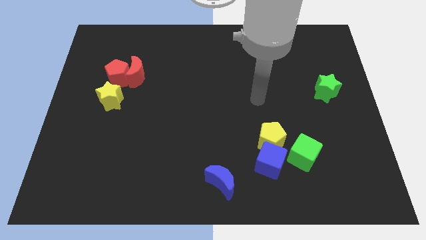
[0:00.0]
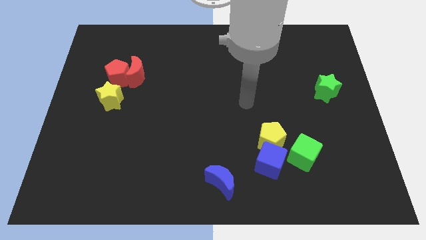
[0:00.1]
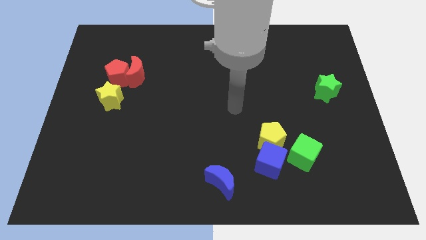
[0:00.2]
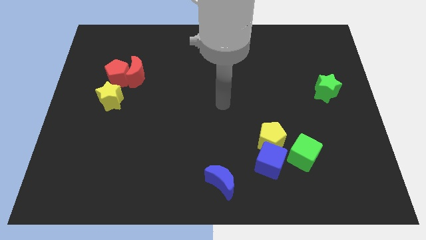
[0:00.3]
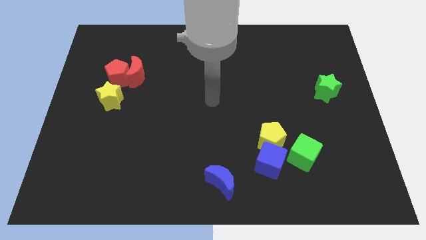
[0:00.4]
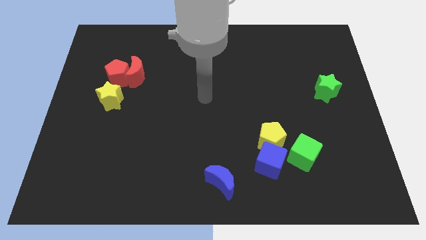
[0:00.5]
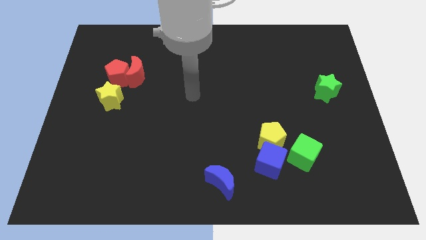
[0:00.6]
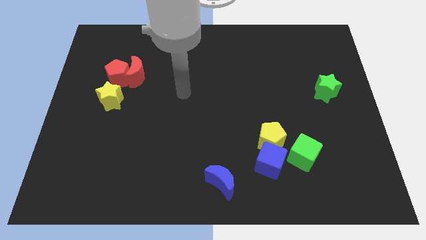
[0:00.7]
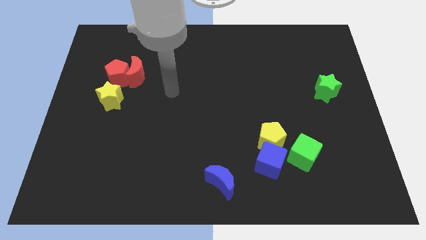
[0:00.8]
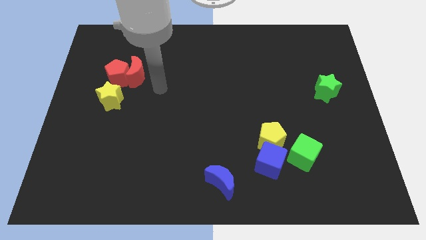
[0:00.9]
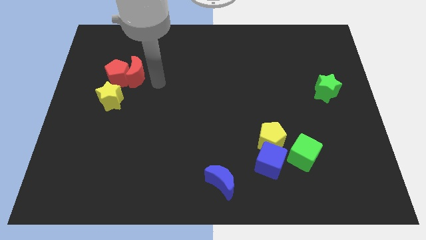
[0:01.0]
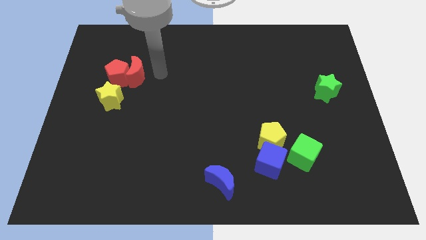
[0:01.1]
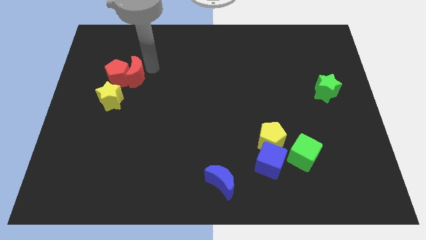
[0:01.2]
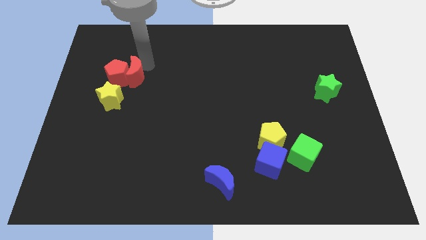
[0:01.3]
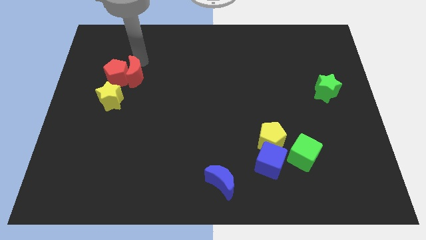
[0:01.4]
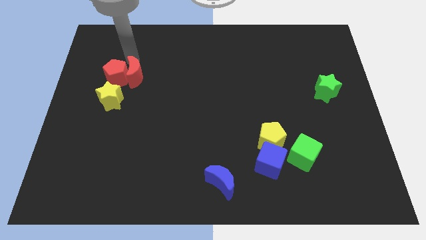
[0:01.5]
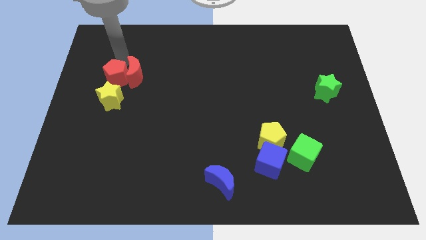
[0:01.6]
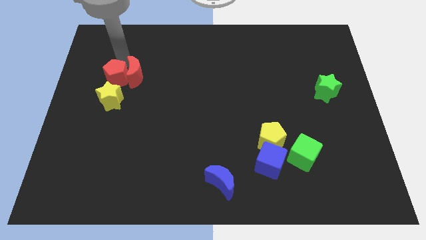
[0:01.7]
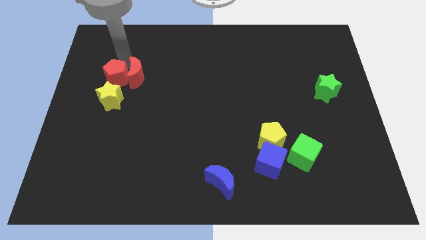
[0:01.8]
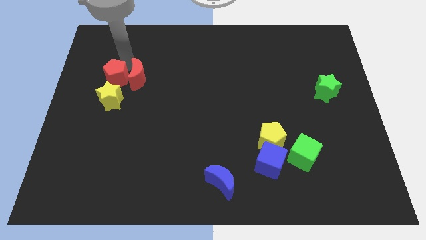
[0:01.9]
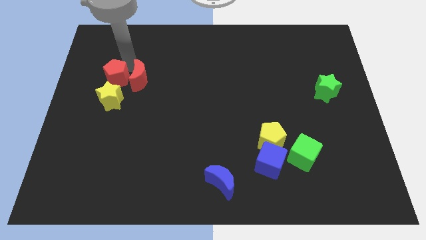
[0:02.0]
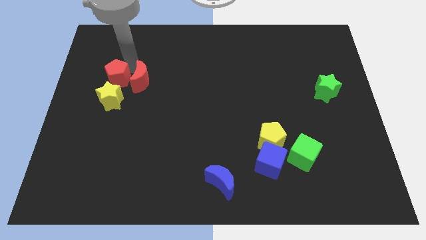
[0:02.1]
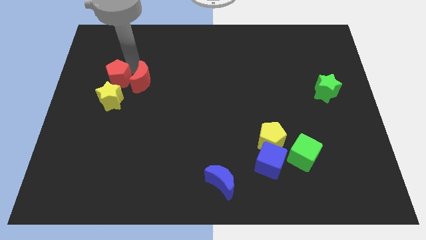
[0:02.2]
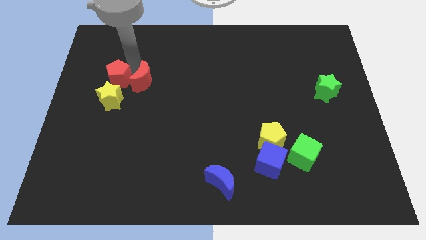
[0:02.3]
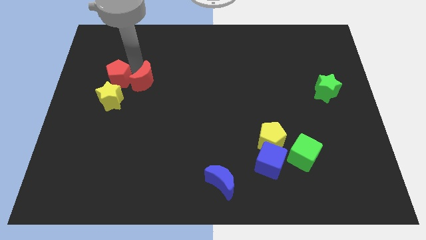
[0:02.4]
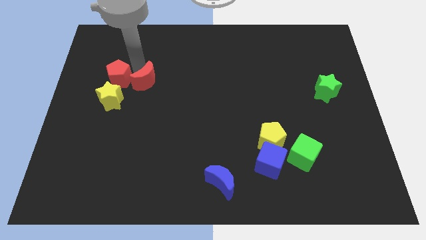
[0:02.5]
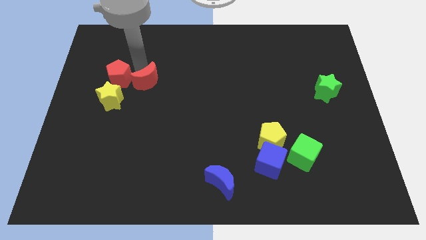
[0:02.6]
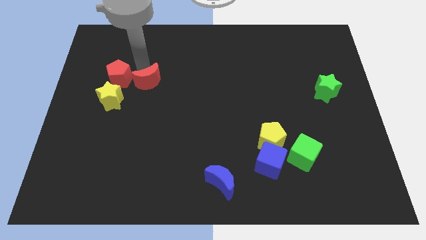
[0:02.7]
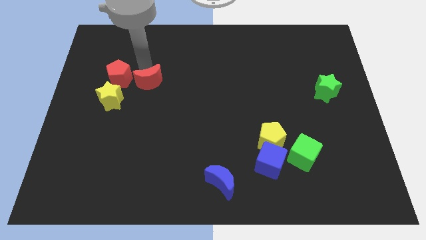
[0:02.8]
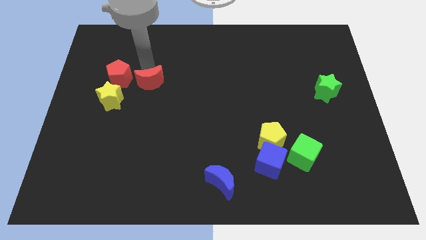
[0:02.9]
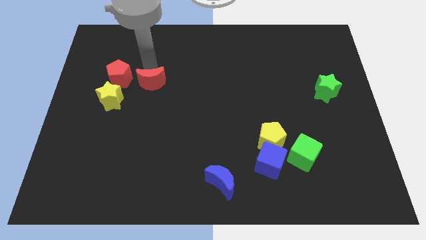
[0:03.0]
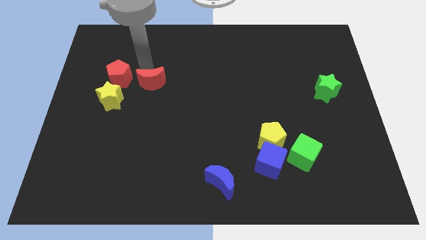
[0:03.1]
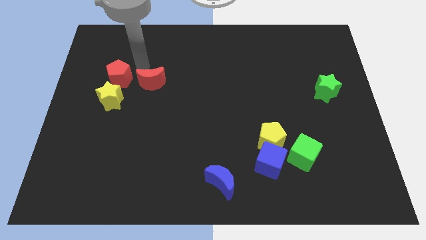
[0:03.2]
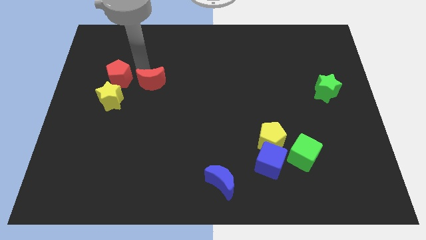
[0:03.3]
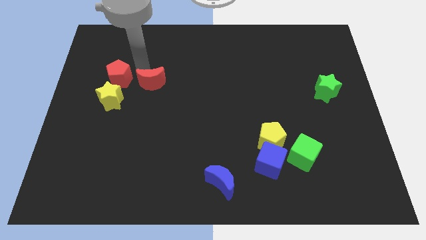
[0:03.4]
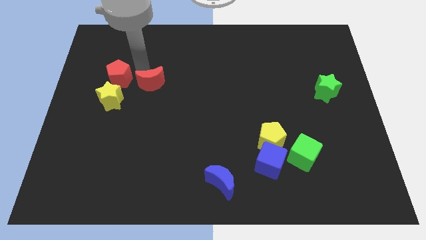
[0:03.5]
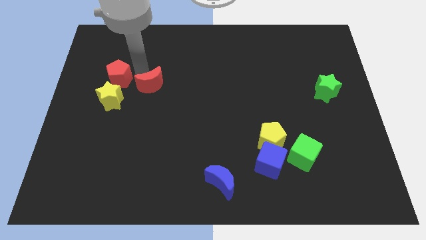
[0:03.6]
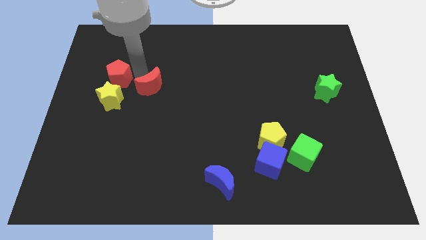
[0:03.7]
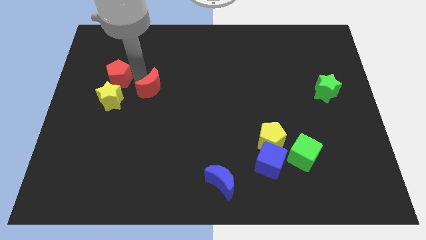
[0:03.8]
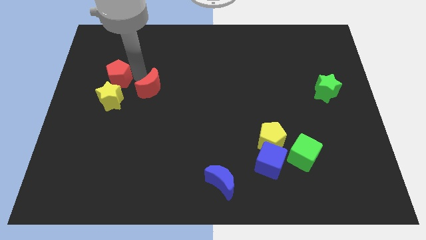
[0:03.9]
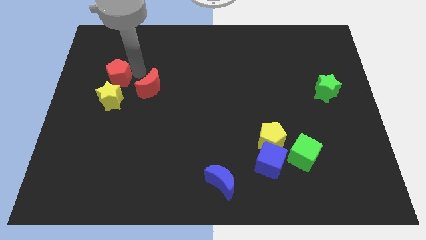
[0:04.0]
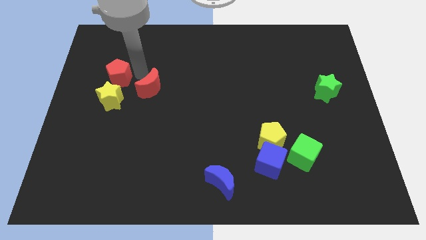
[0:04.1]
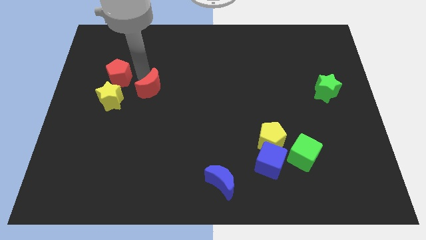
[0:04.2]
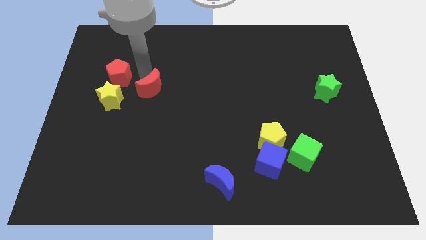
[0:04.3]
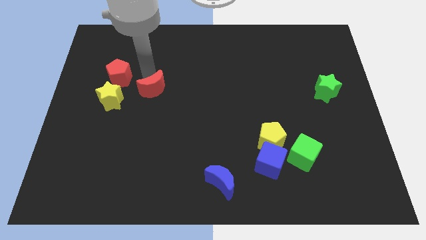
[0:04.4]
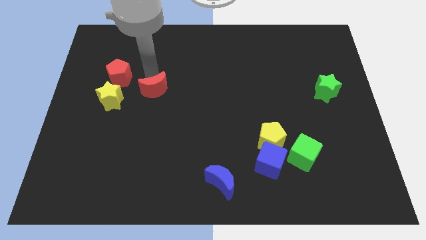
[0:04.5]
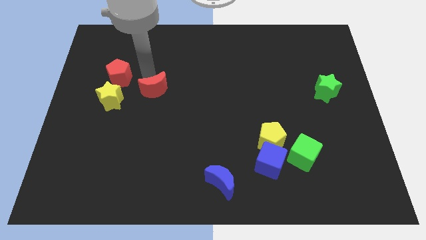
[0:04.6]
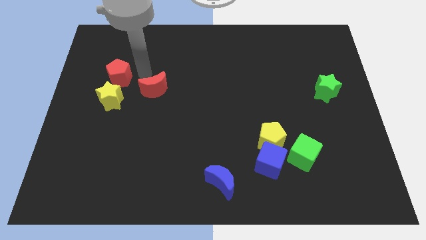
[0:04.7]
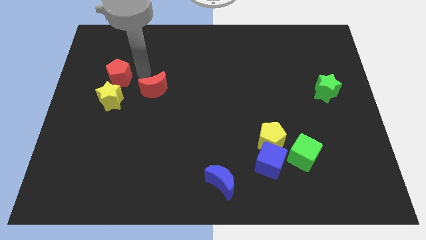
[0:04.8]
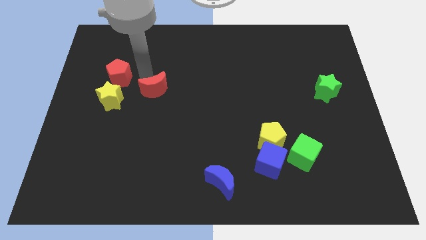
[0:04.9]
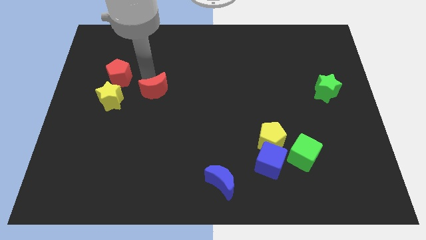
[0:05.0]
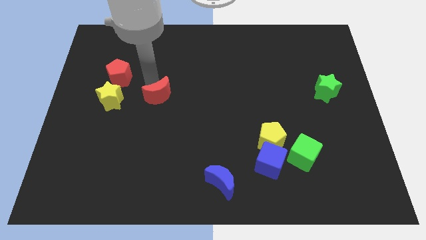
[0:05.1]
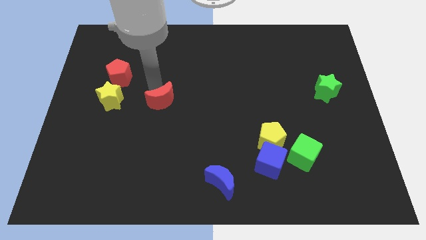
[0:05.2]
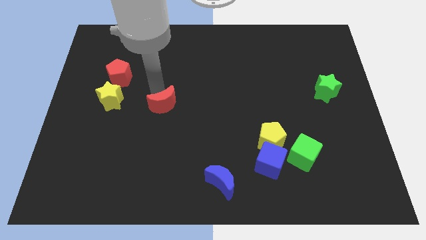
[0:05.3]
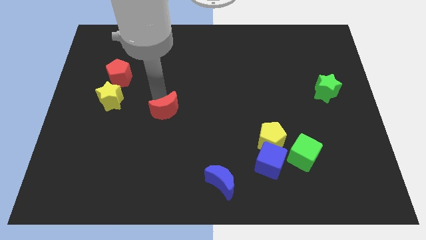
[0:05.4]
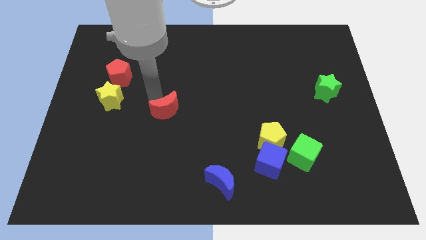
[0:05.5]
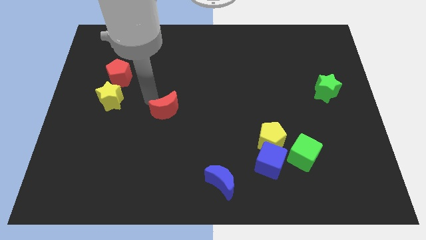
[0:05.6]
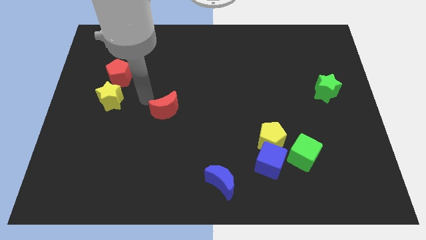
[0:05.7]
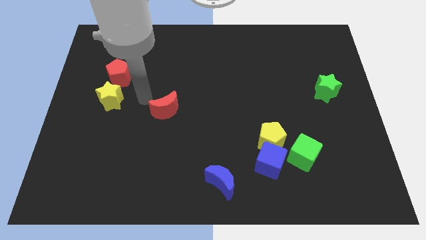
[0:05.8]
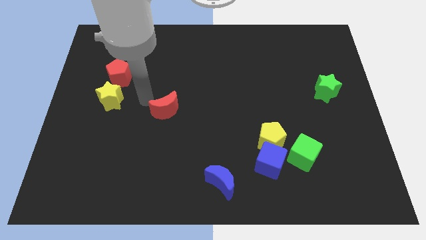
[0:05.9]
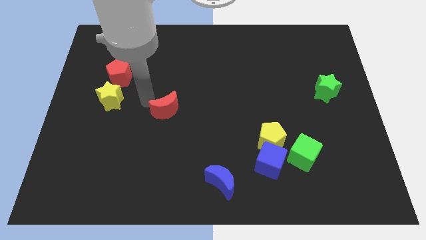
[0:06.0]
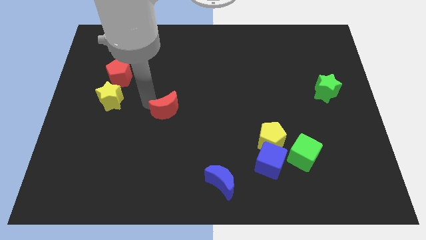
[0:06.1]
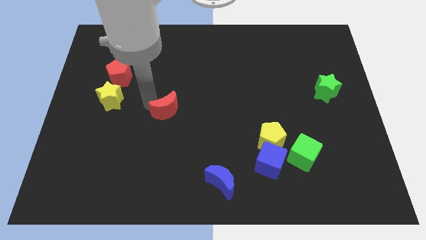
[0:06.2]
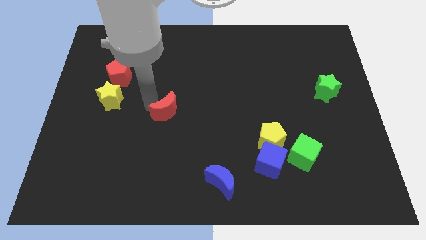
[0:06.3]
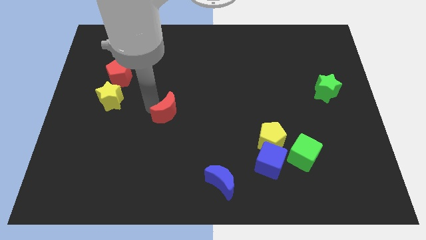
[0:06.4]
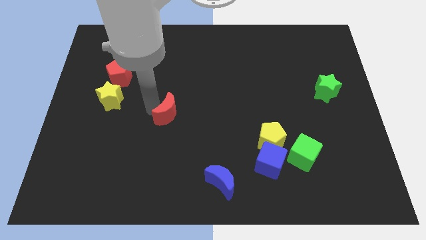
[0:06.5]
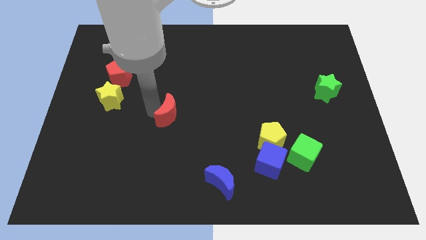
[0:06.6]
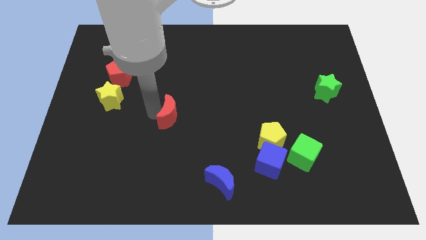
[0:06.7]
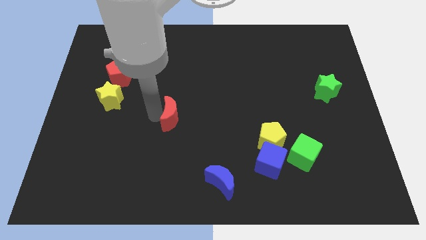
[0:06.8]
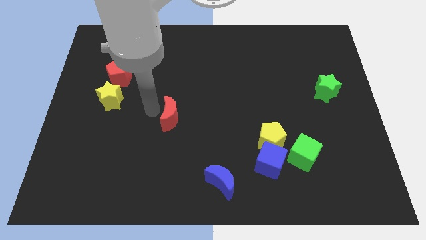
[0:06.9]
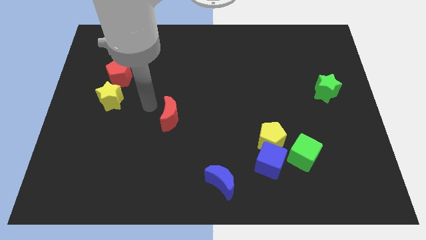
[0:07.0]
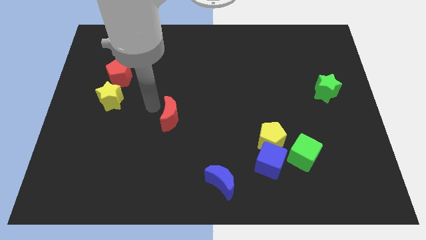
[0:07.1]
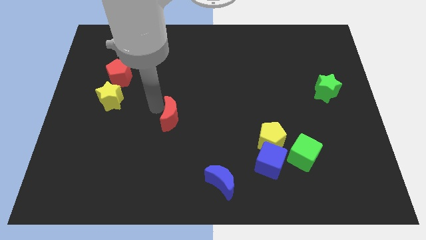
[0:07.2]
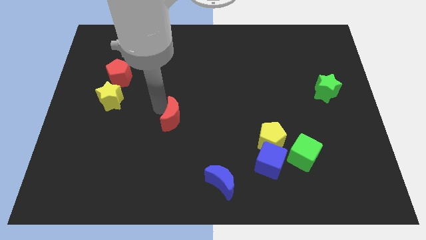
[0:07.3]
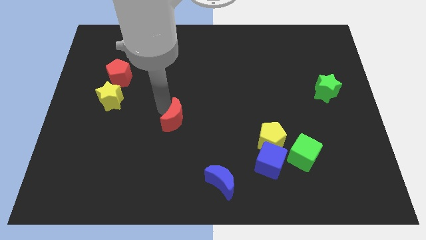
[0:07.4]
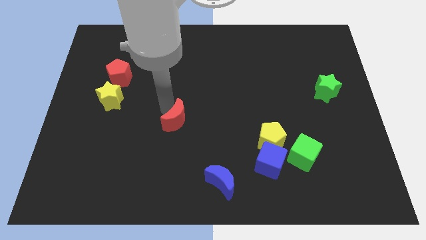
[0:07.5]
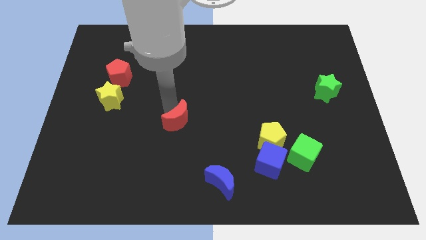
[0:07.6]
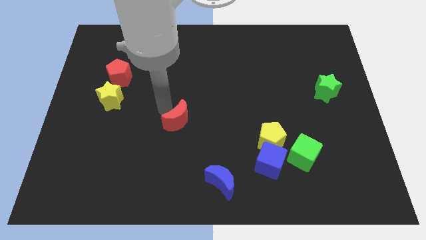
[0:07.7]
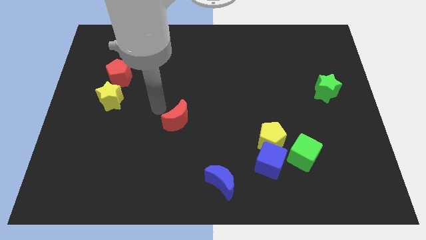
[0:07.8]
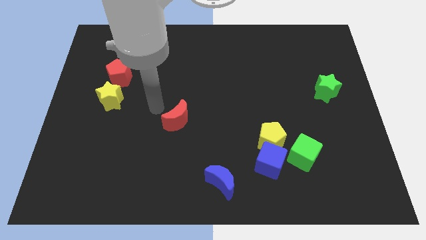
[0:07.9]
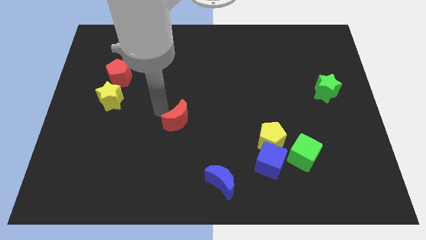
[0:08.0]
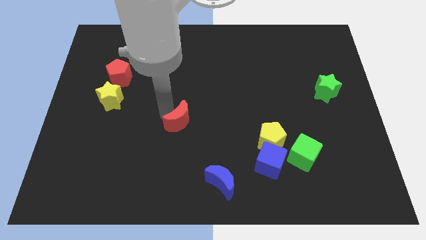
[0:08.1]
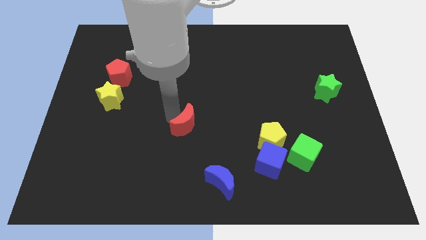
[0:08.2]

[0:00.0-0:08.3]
push the red moon diagonally downwards and to the right

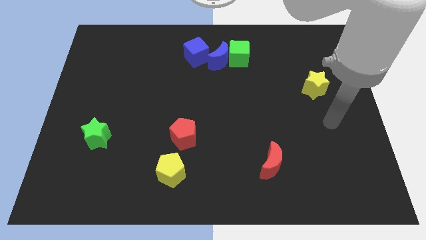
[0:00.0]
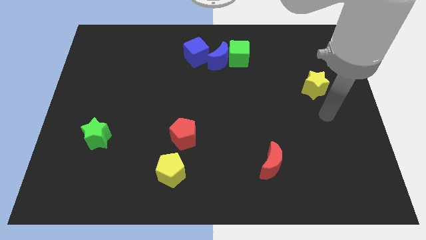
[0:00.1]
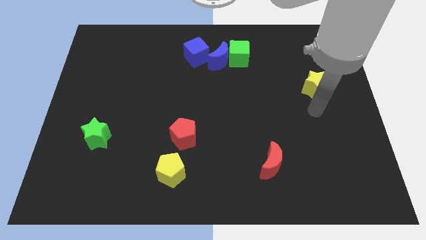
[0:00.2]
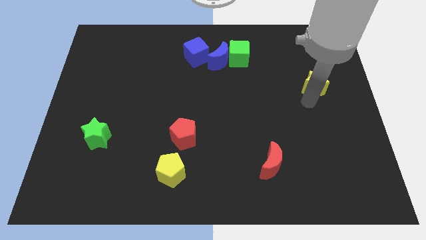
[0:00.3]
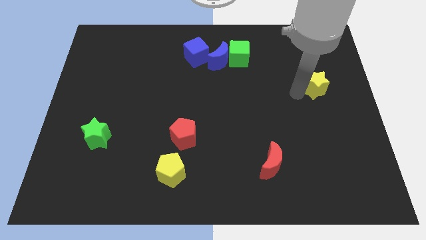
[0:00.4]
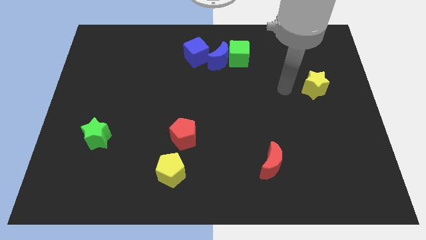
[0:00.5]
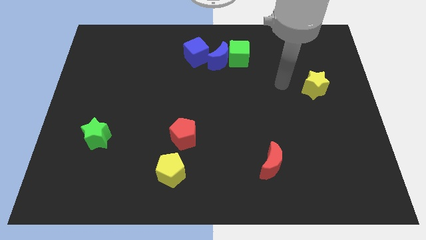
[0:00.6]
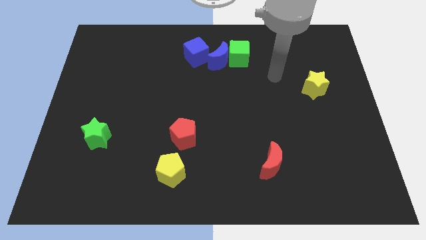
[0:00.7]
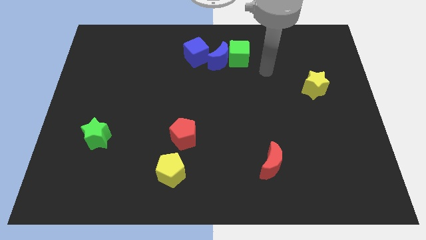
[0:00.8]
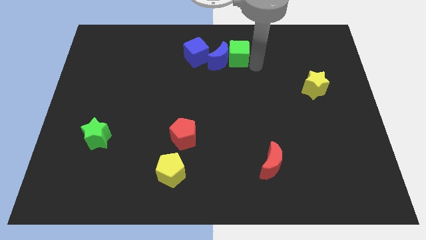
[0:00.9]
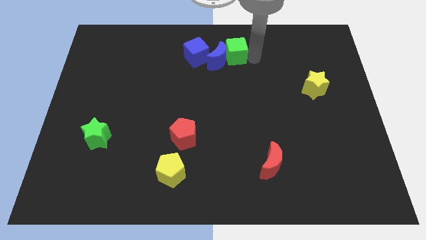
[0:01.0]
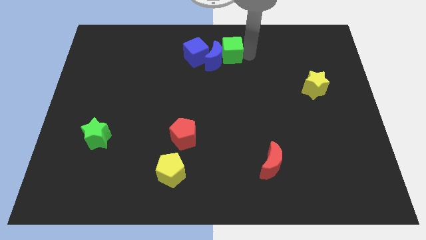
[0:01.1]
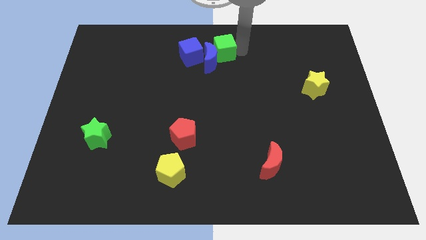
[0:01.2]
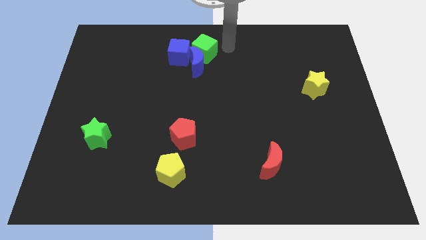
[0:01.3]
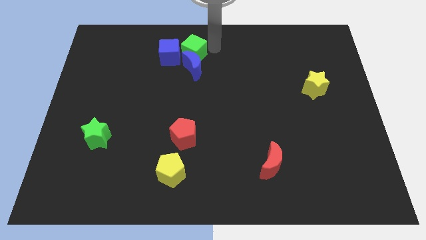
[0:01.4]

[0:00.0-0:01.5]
slide the blue moon left a little bit
